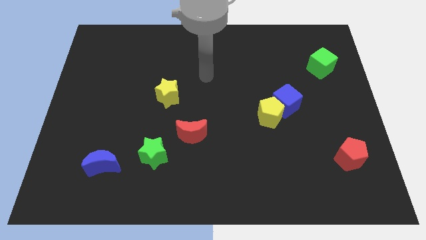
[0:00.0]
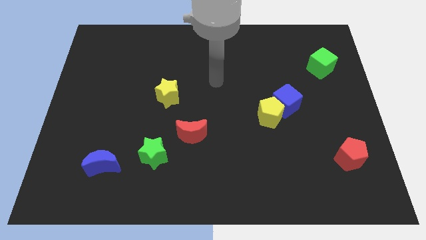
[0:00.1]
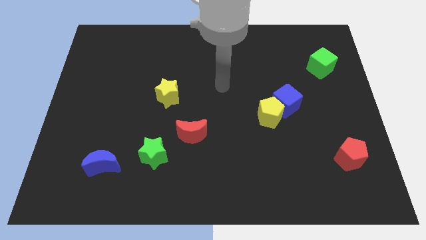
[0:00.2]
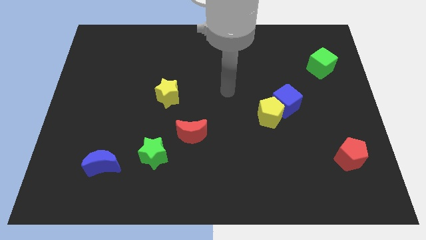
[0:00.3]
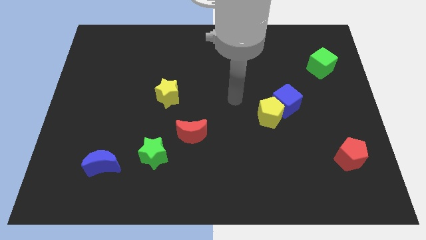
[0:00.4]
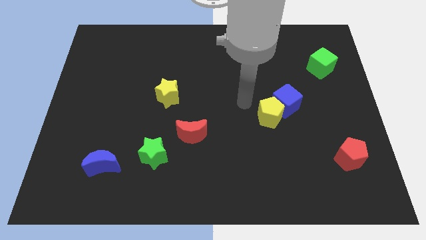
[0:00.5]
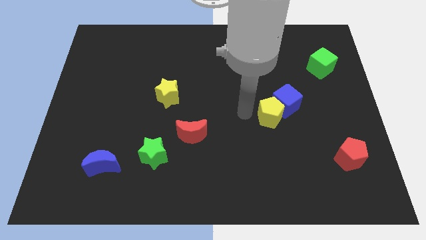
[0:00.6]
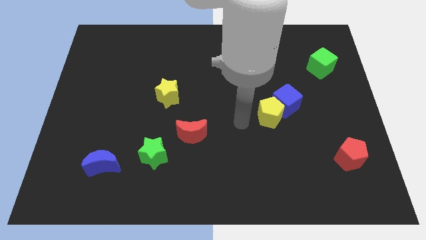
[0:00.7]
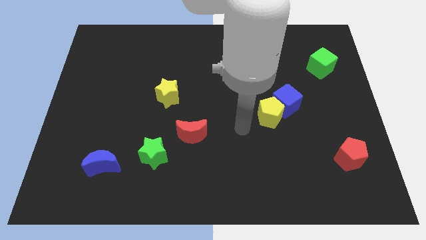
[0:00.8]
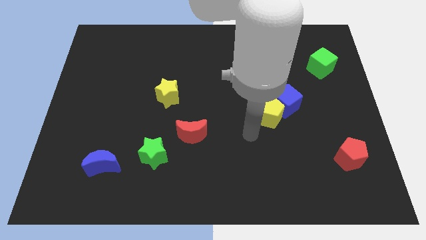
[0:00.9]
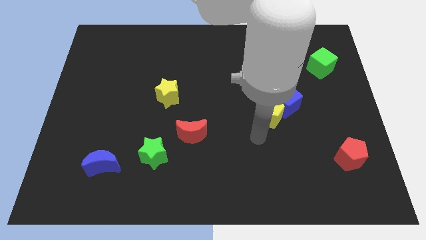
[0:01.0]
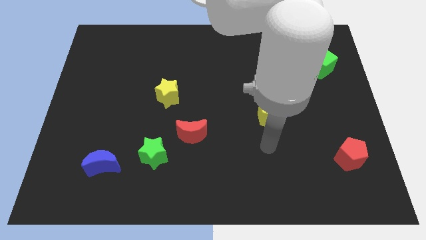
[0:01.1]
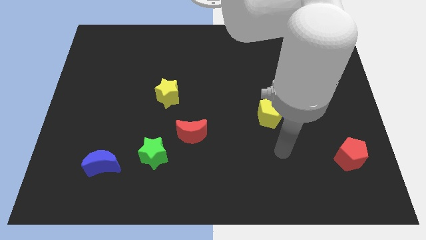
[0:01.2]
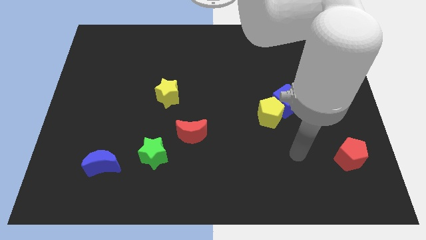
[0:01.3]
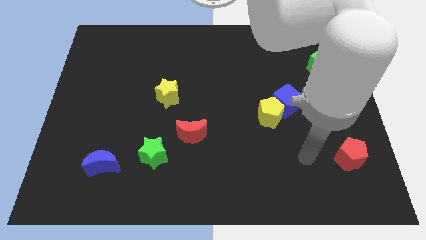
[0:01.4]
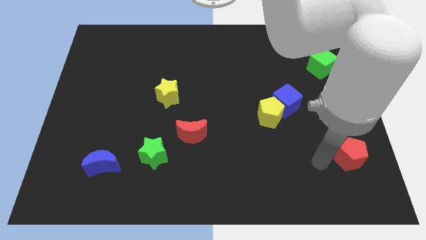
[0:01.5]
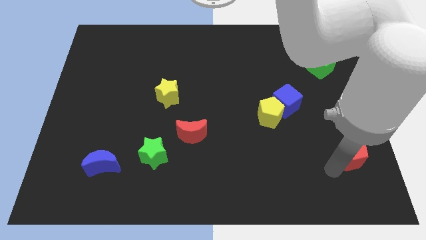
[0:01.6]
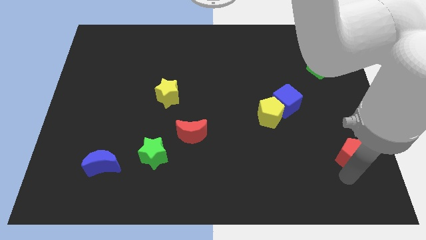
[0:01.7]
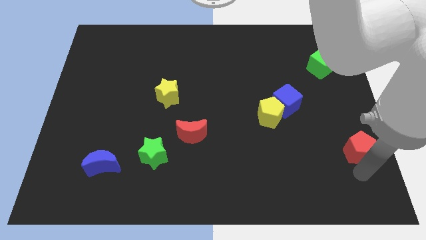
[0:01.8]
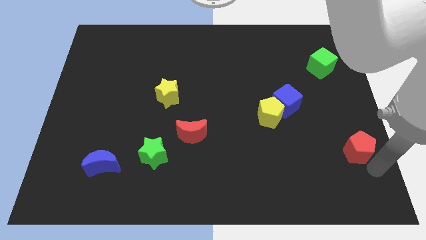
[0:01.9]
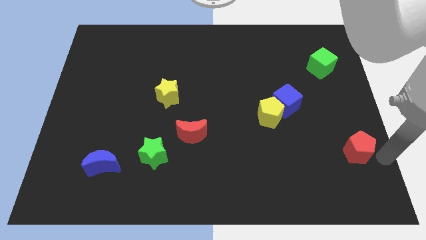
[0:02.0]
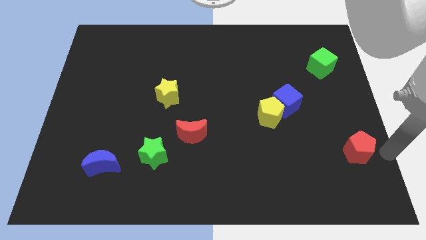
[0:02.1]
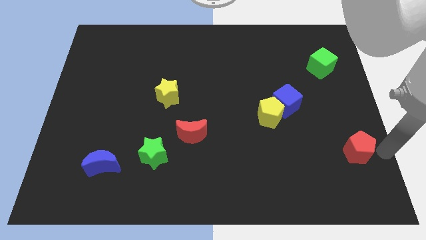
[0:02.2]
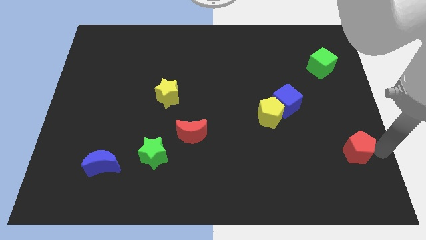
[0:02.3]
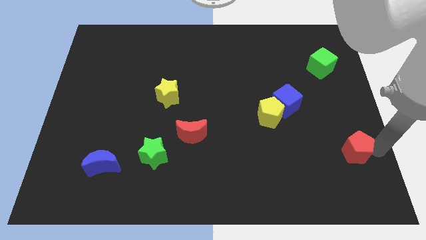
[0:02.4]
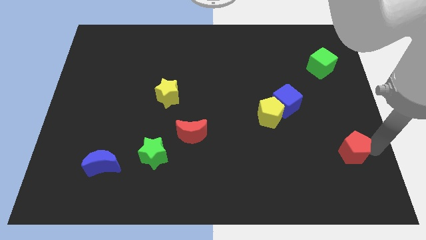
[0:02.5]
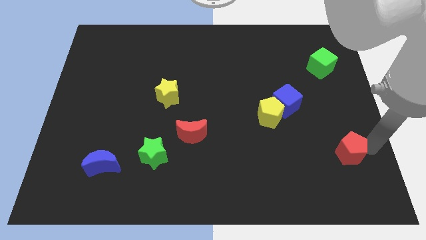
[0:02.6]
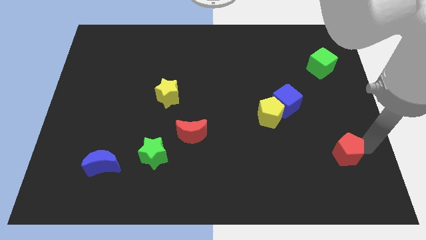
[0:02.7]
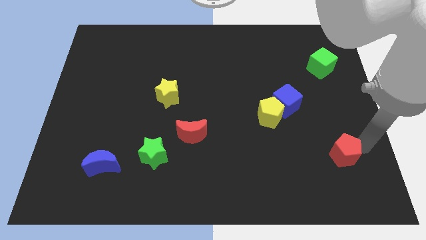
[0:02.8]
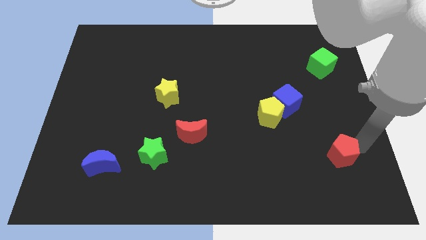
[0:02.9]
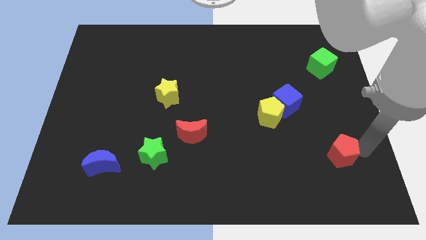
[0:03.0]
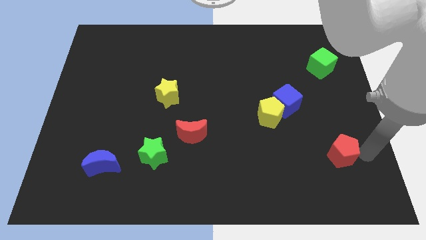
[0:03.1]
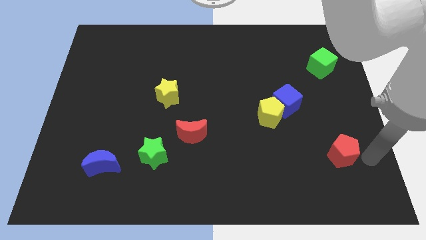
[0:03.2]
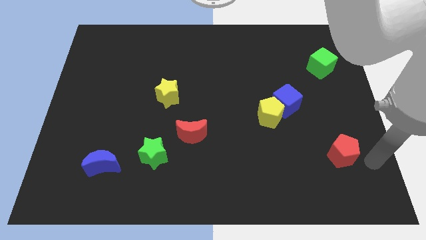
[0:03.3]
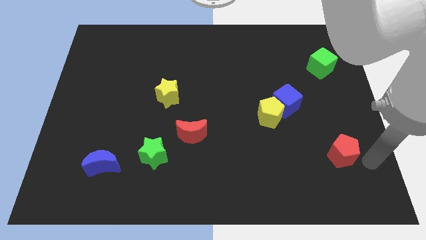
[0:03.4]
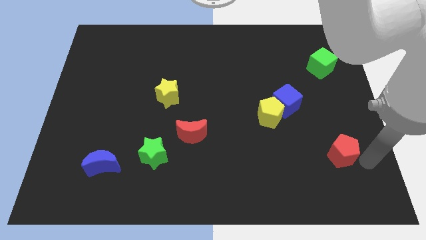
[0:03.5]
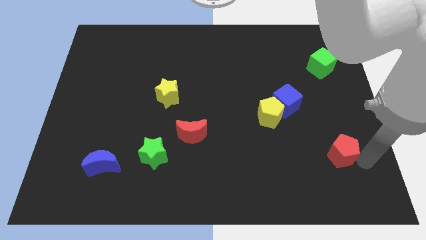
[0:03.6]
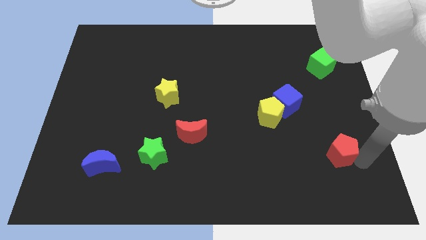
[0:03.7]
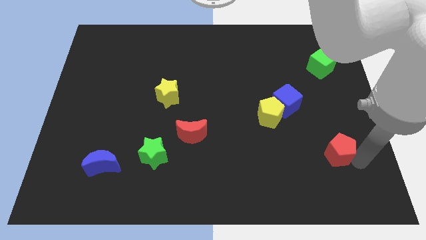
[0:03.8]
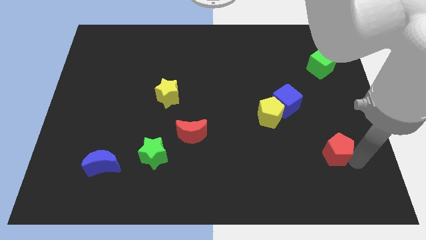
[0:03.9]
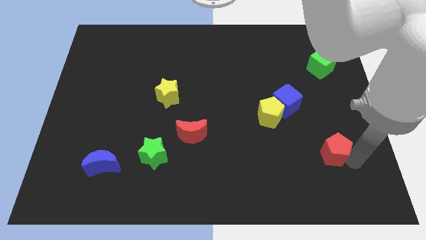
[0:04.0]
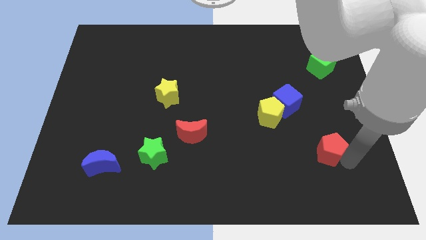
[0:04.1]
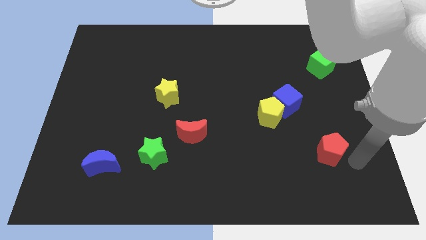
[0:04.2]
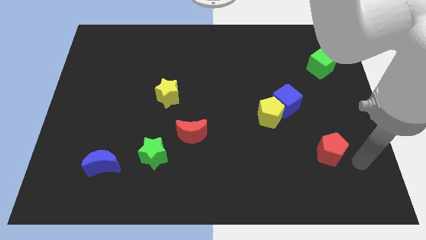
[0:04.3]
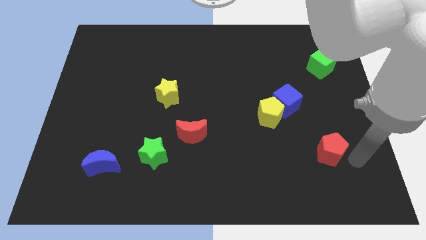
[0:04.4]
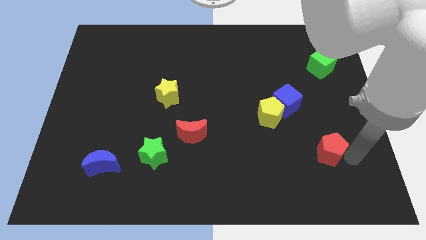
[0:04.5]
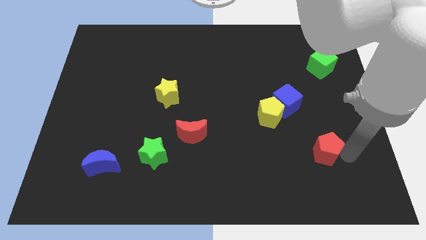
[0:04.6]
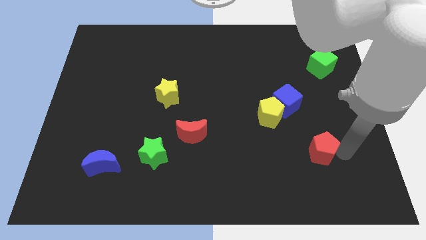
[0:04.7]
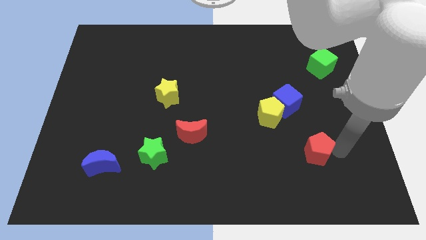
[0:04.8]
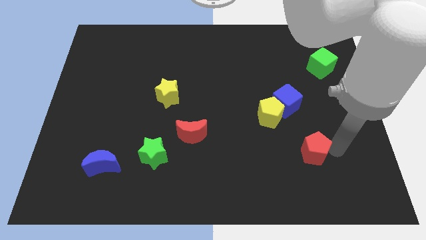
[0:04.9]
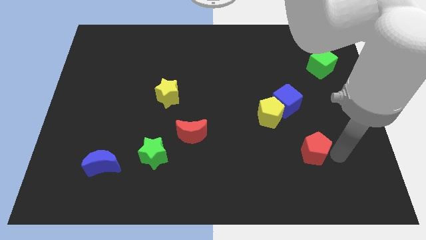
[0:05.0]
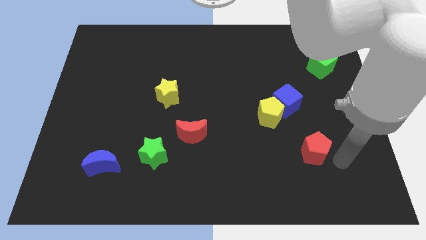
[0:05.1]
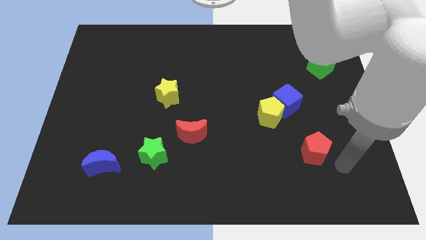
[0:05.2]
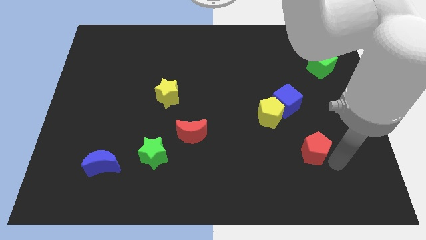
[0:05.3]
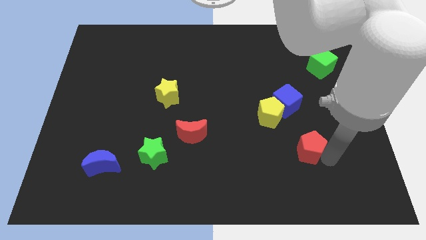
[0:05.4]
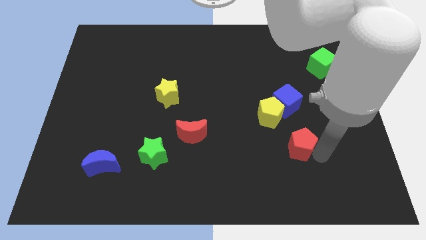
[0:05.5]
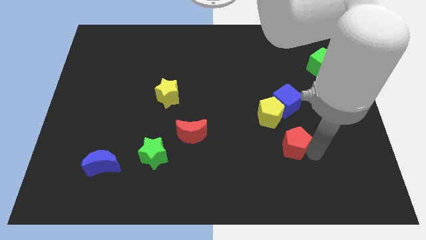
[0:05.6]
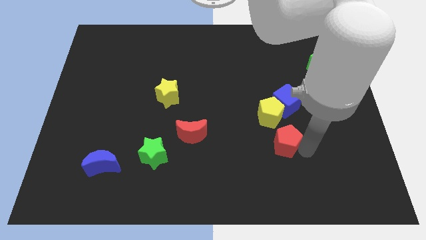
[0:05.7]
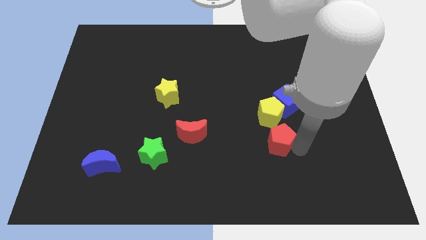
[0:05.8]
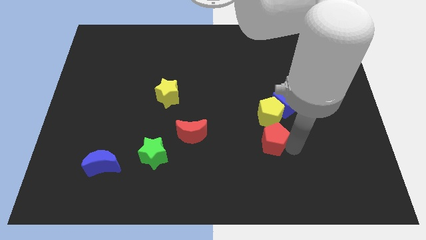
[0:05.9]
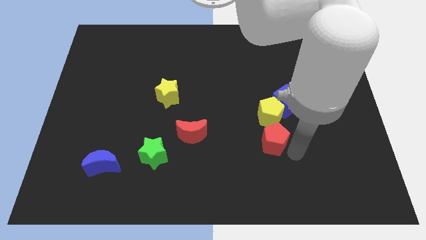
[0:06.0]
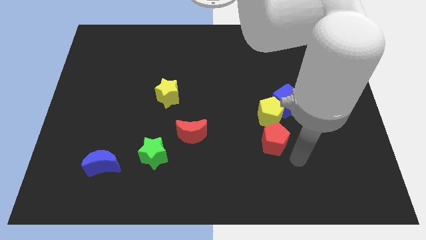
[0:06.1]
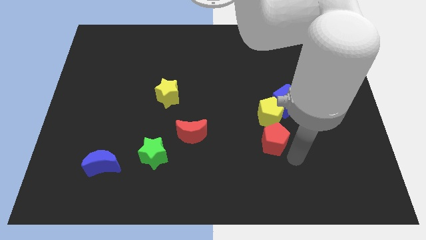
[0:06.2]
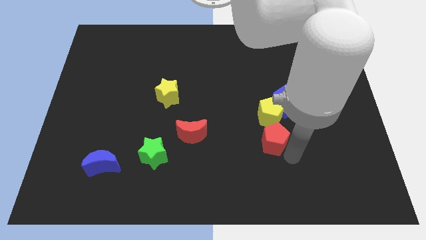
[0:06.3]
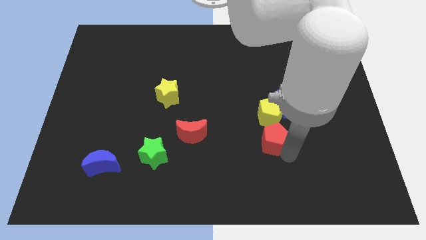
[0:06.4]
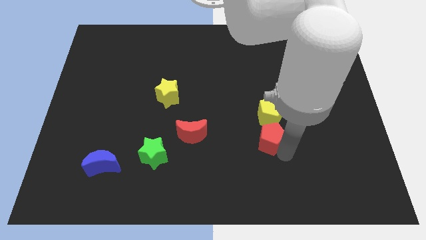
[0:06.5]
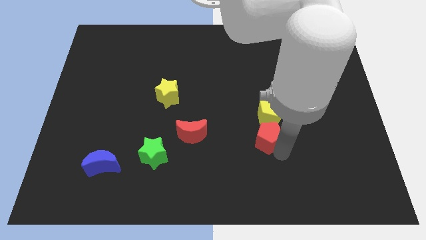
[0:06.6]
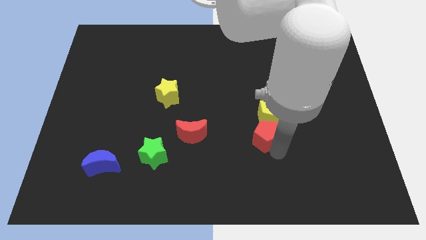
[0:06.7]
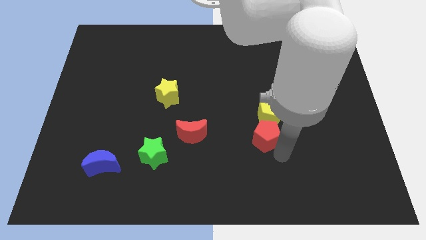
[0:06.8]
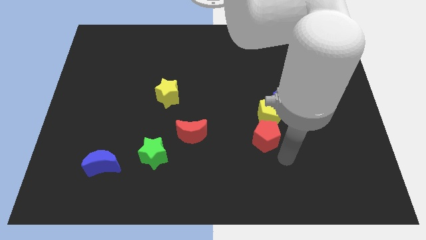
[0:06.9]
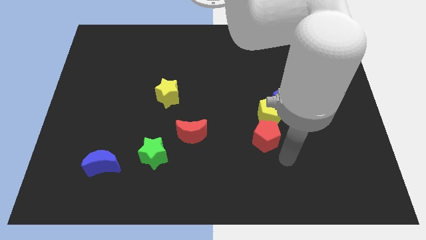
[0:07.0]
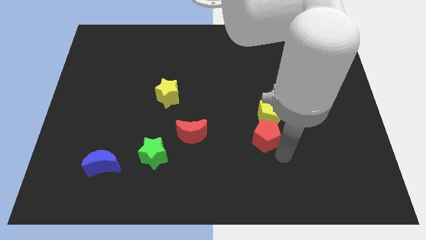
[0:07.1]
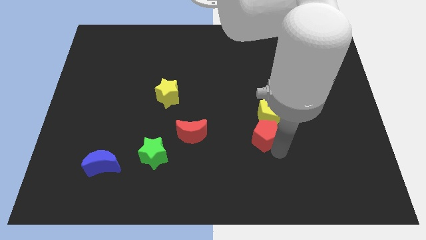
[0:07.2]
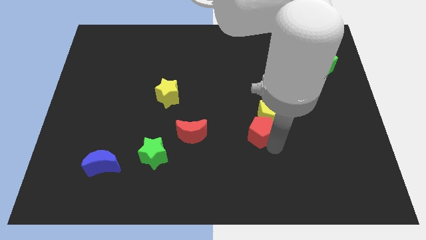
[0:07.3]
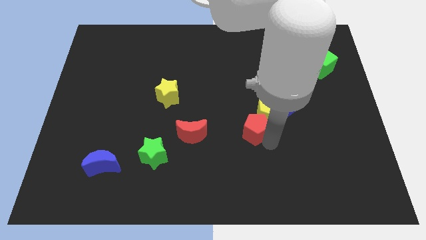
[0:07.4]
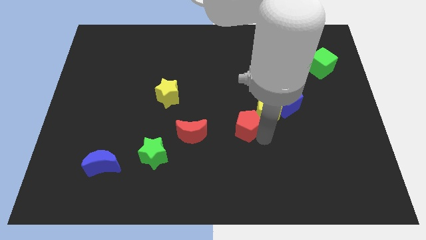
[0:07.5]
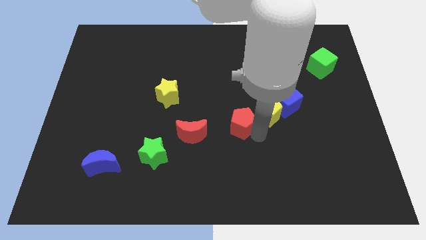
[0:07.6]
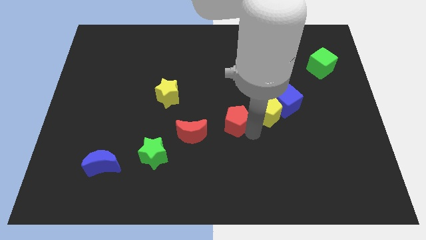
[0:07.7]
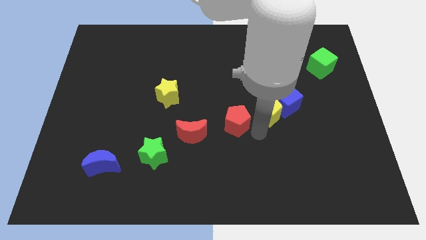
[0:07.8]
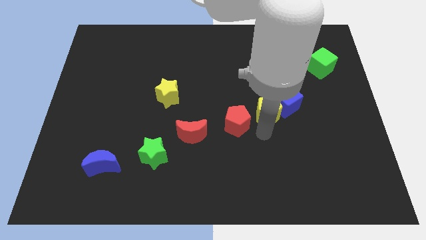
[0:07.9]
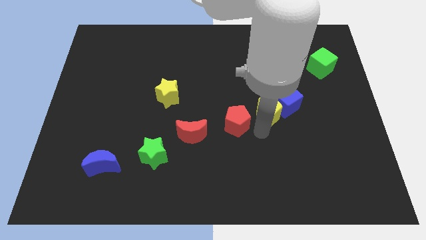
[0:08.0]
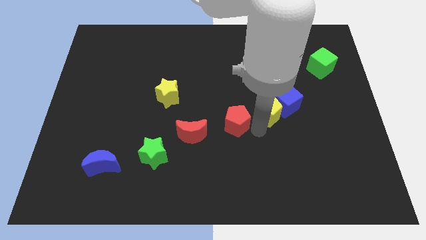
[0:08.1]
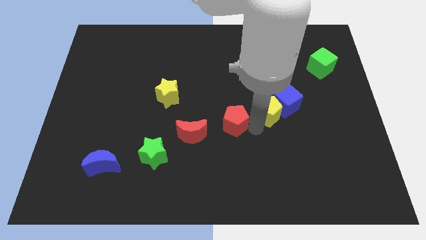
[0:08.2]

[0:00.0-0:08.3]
push the red pentagon to the top right side of the red moon
